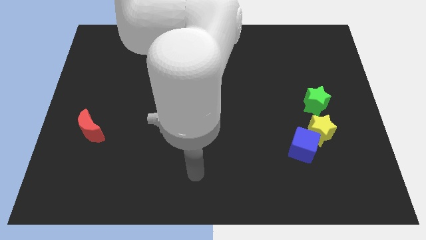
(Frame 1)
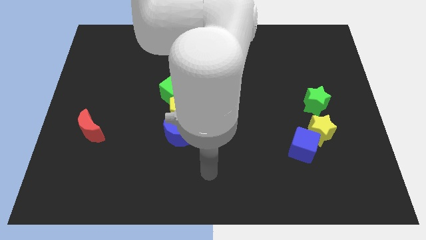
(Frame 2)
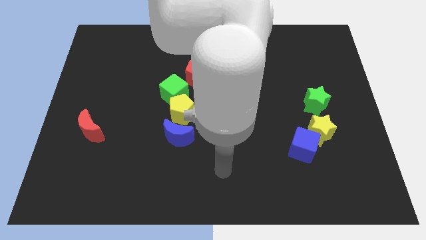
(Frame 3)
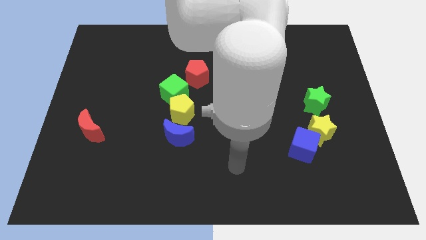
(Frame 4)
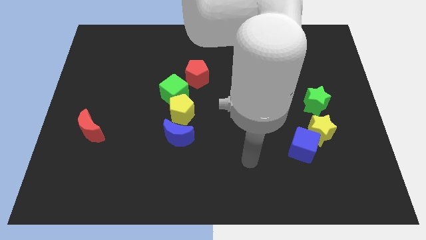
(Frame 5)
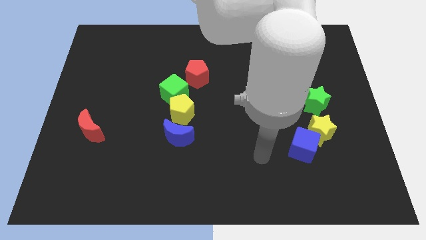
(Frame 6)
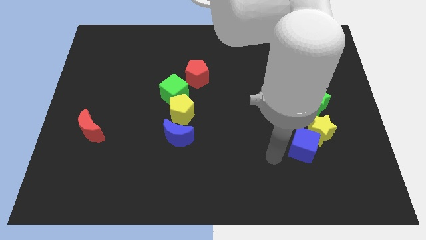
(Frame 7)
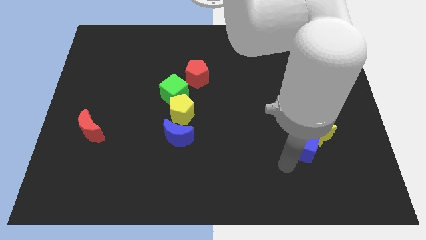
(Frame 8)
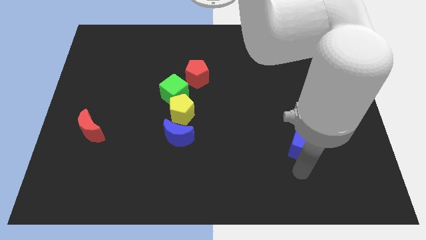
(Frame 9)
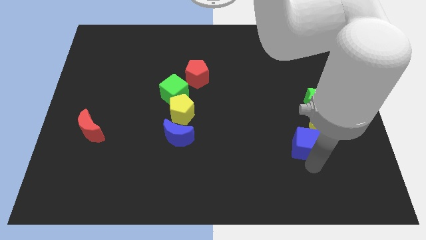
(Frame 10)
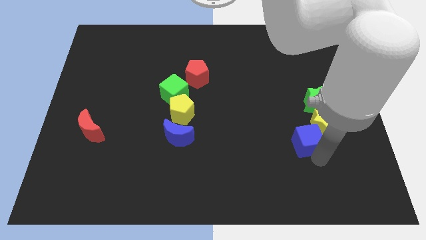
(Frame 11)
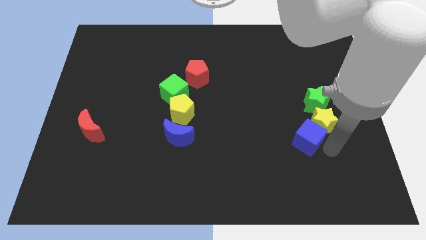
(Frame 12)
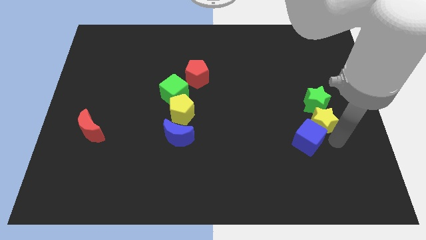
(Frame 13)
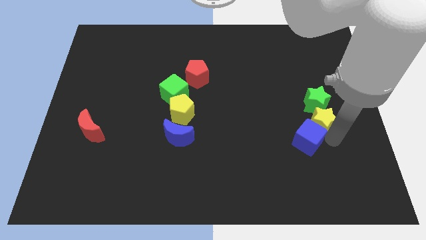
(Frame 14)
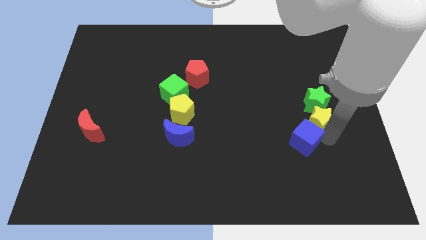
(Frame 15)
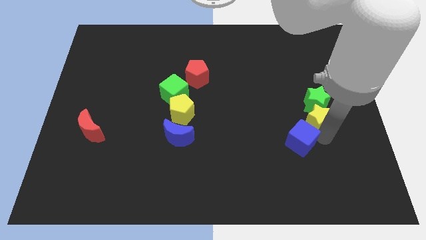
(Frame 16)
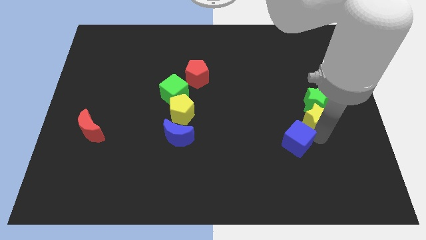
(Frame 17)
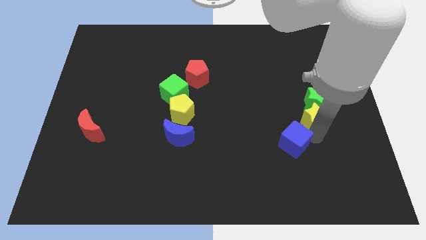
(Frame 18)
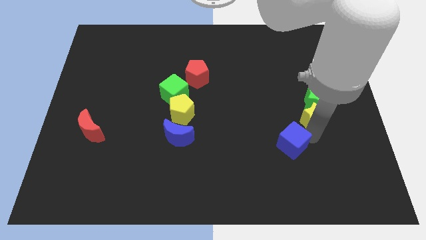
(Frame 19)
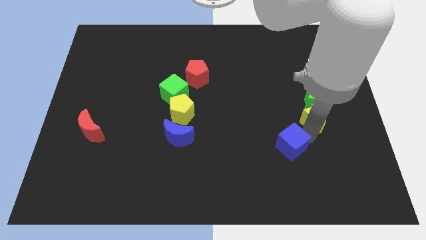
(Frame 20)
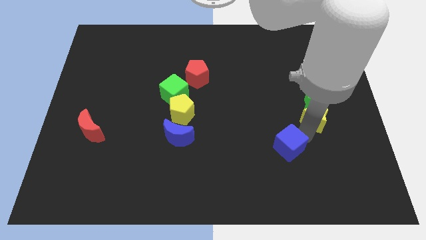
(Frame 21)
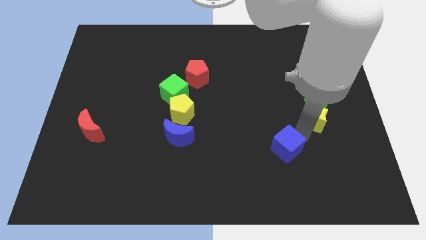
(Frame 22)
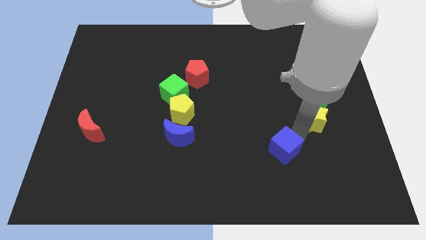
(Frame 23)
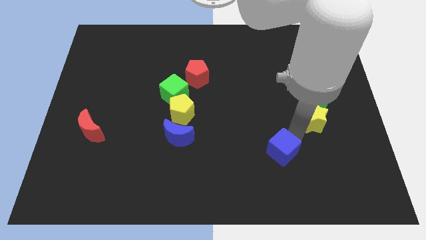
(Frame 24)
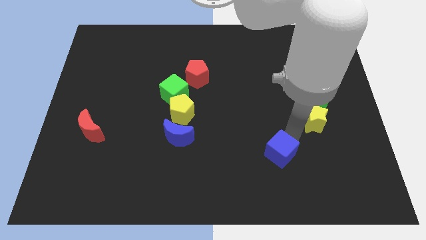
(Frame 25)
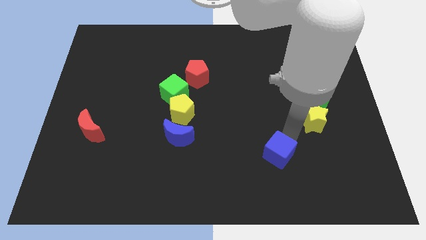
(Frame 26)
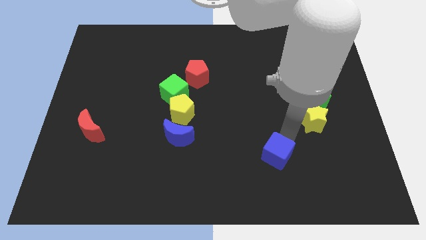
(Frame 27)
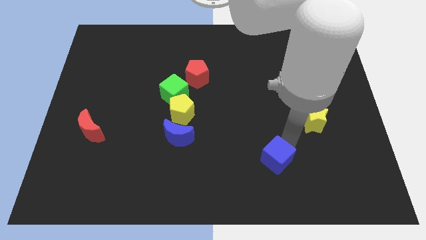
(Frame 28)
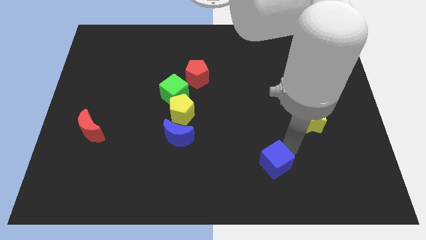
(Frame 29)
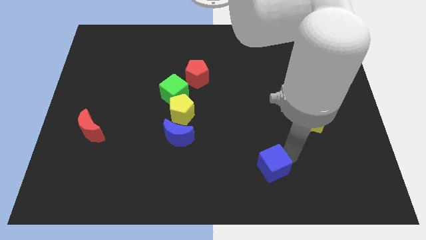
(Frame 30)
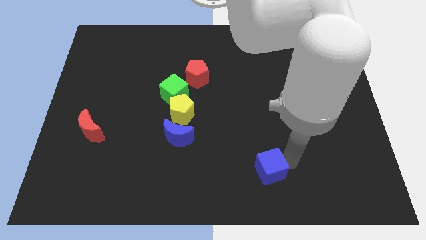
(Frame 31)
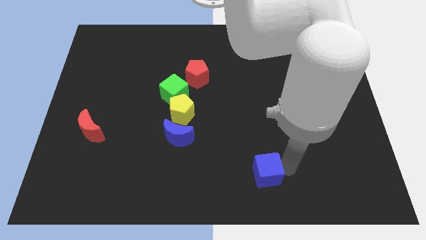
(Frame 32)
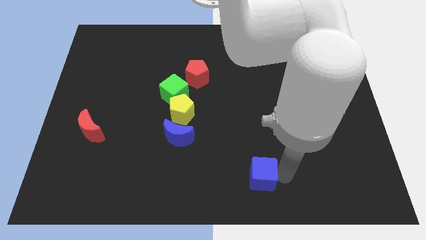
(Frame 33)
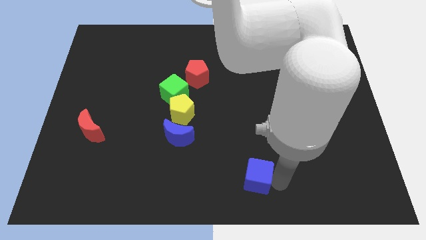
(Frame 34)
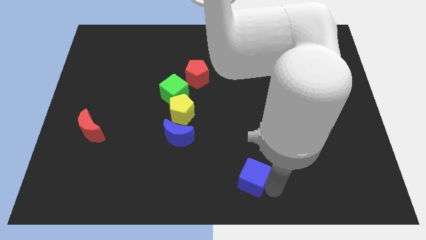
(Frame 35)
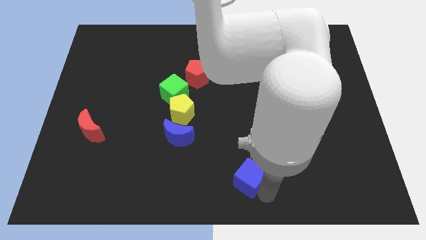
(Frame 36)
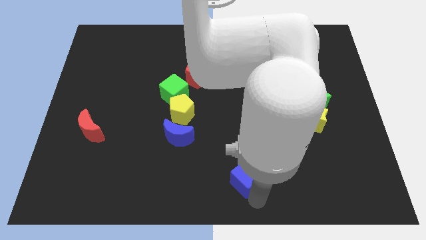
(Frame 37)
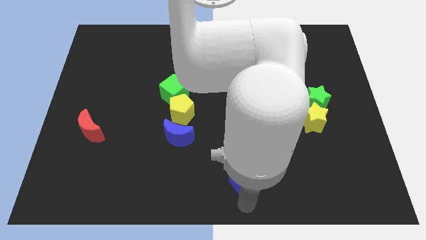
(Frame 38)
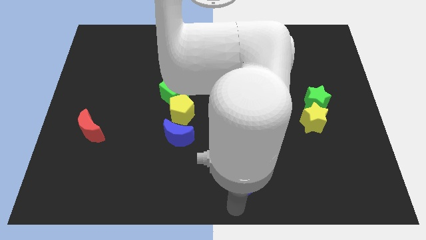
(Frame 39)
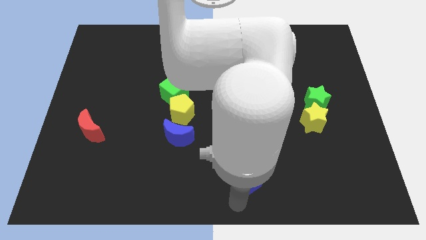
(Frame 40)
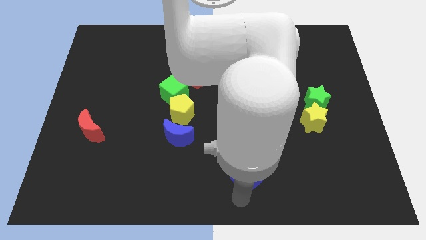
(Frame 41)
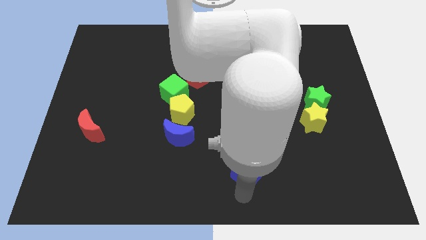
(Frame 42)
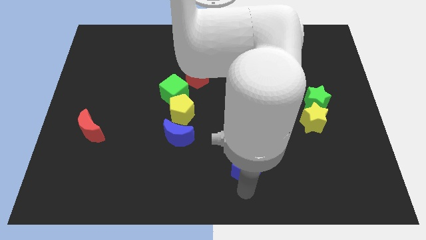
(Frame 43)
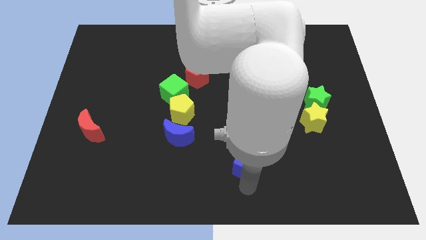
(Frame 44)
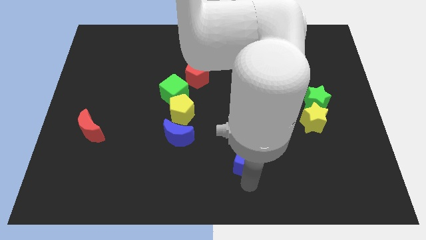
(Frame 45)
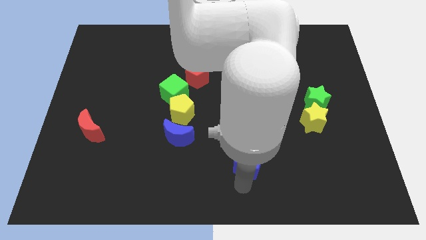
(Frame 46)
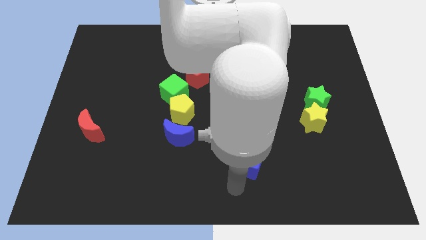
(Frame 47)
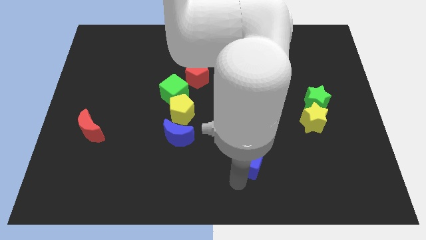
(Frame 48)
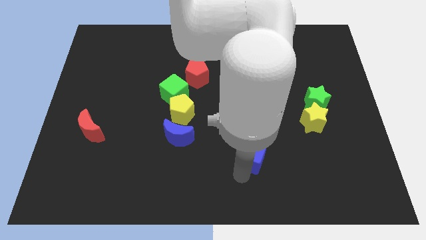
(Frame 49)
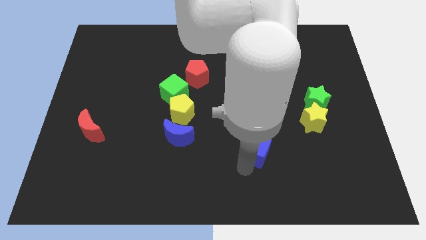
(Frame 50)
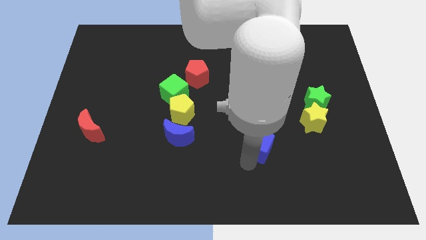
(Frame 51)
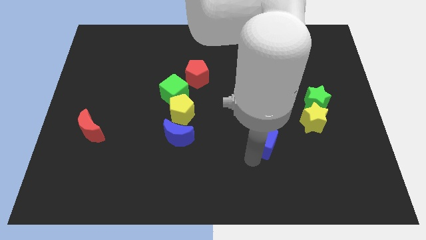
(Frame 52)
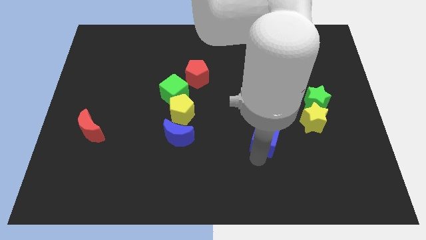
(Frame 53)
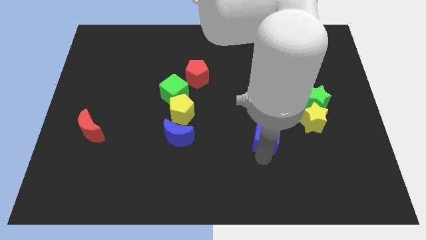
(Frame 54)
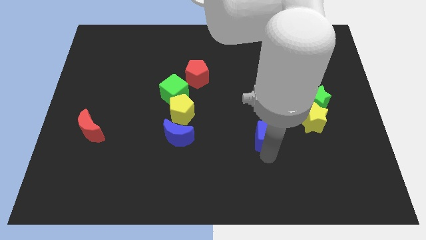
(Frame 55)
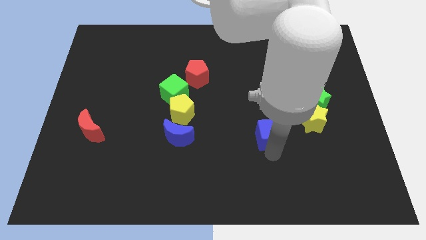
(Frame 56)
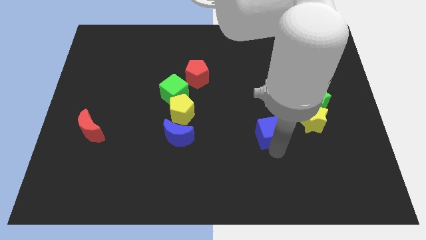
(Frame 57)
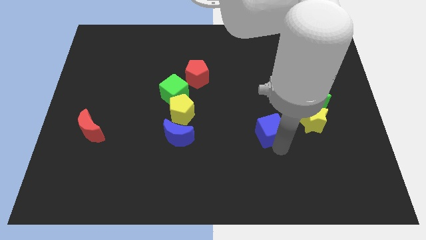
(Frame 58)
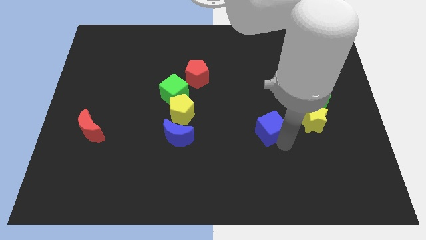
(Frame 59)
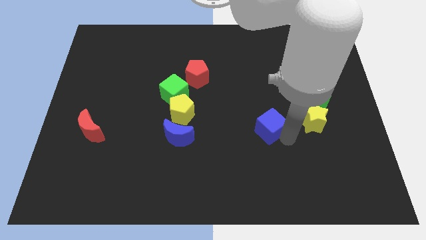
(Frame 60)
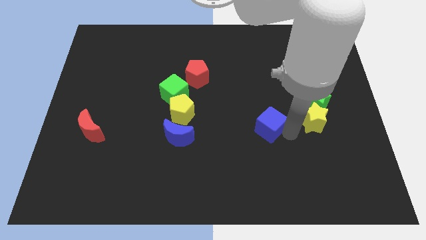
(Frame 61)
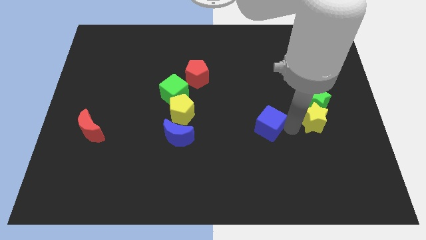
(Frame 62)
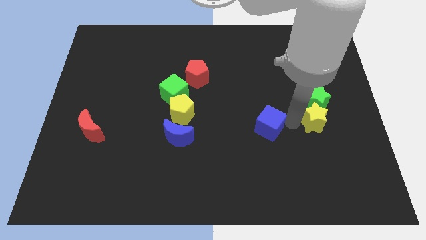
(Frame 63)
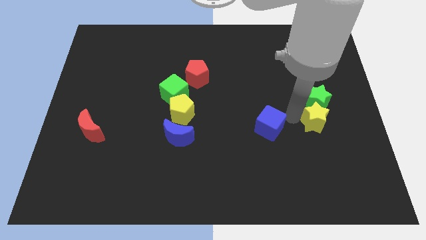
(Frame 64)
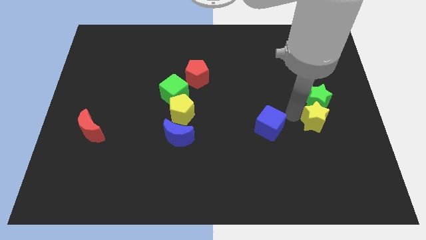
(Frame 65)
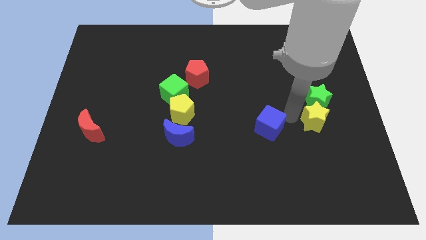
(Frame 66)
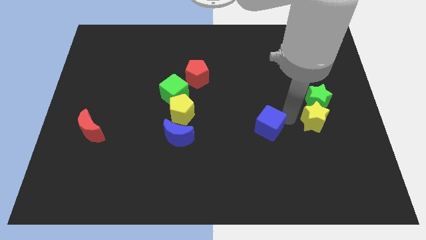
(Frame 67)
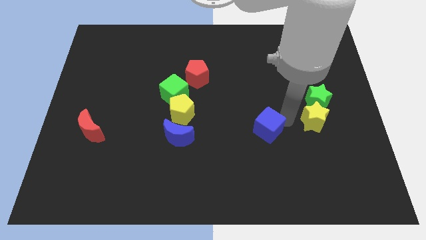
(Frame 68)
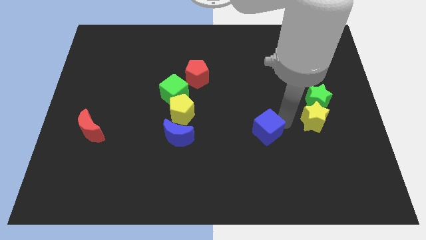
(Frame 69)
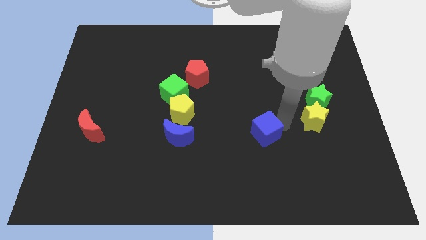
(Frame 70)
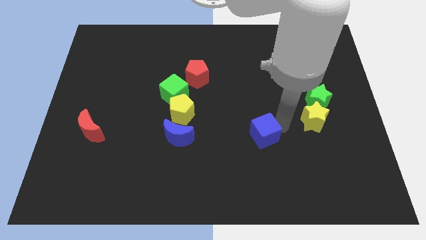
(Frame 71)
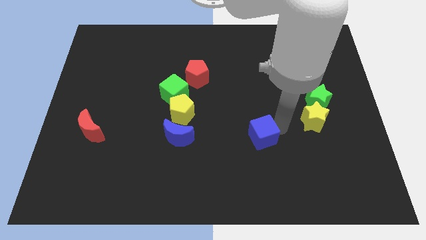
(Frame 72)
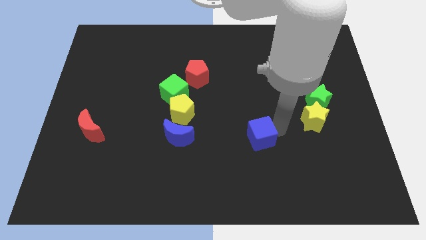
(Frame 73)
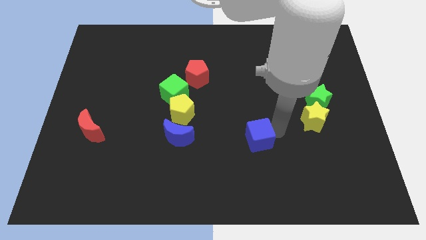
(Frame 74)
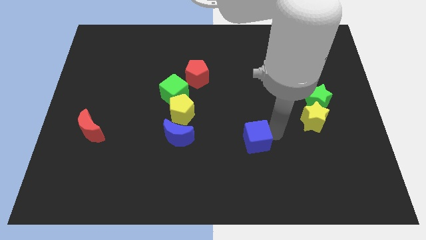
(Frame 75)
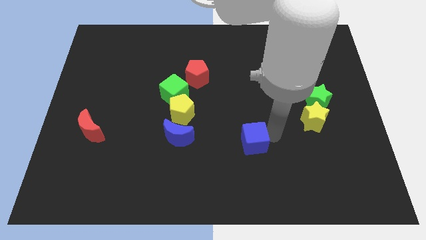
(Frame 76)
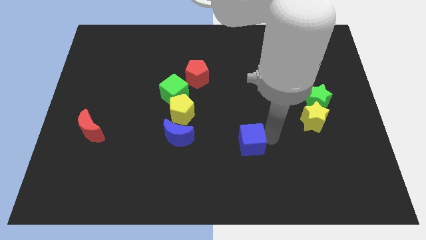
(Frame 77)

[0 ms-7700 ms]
push the blue cube just right of the blue moon
